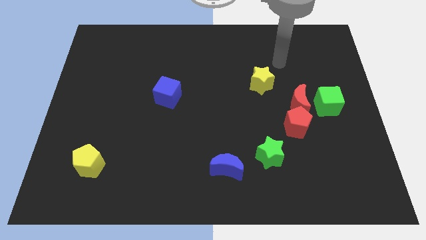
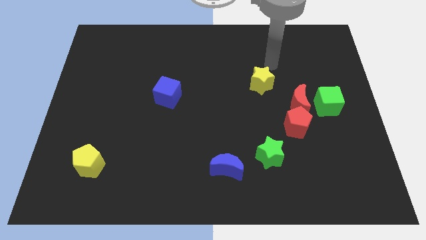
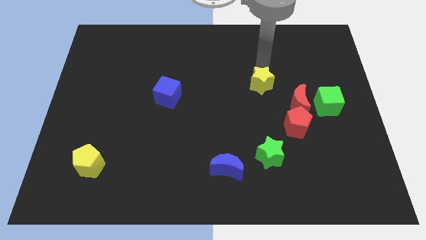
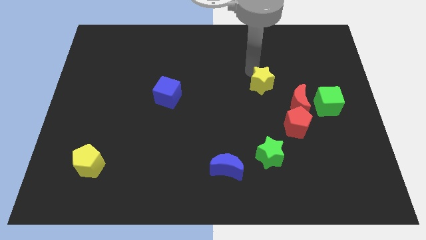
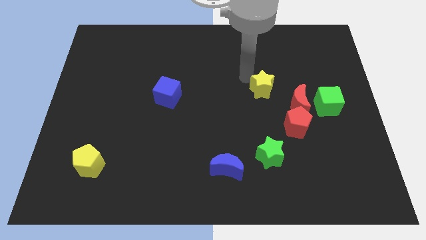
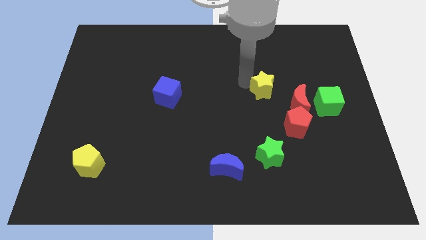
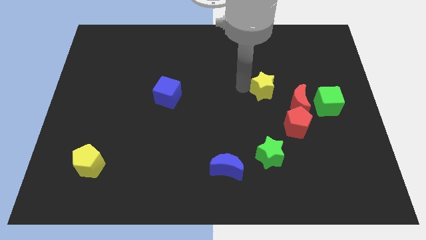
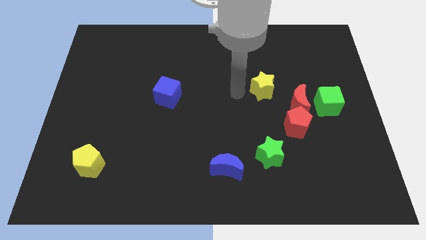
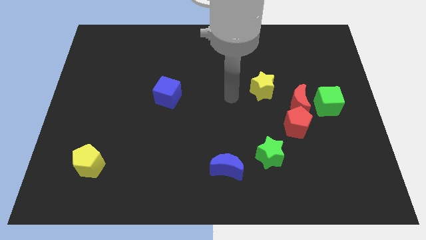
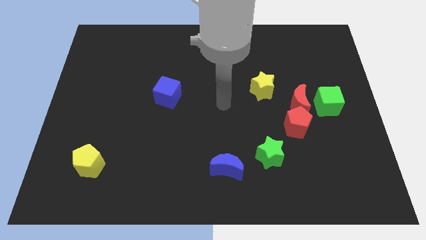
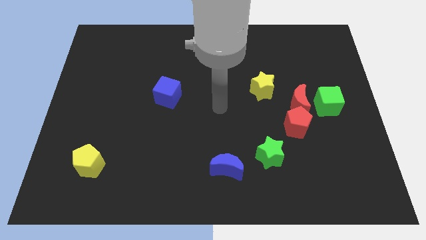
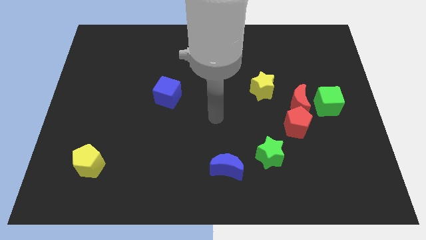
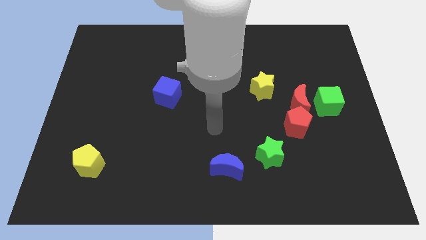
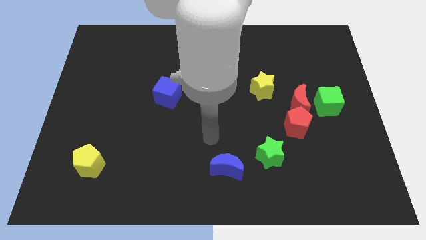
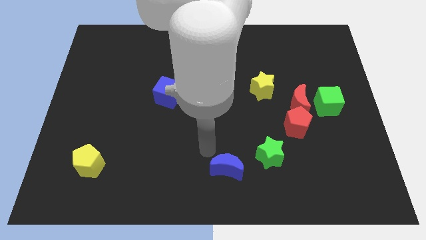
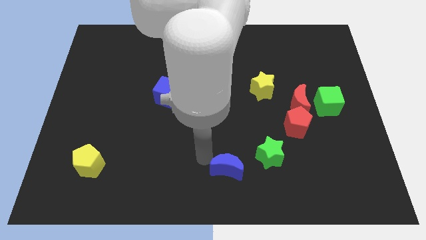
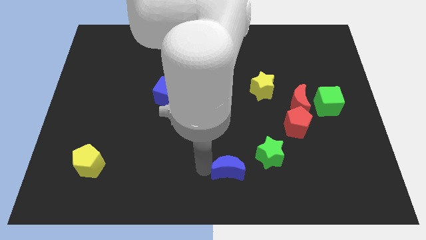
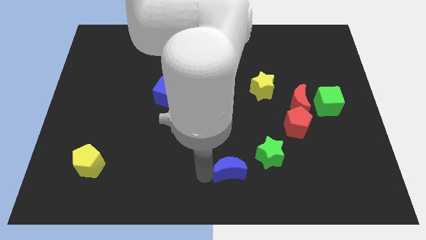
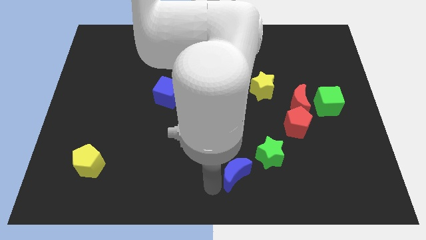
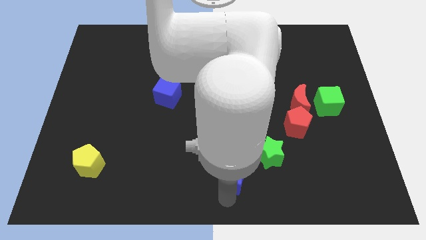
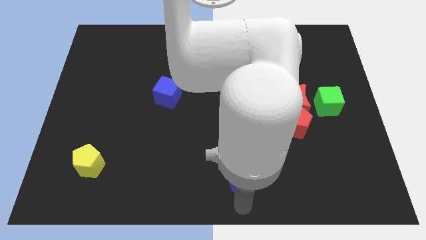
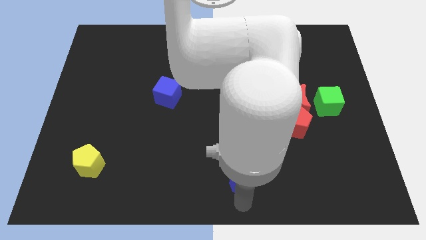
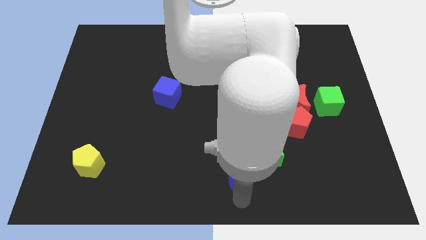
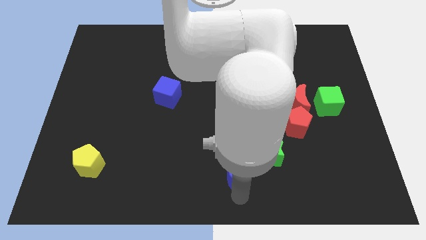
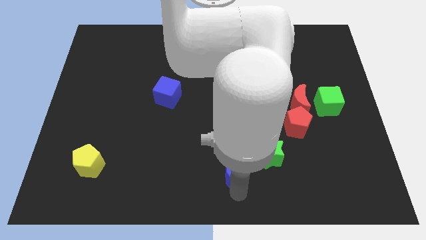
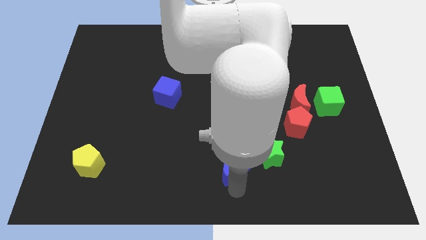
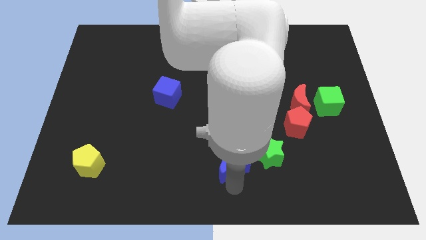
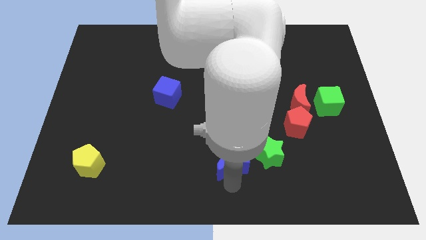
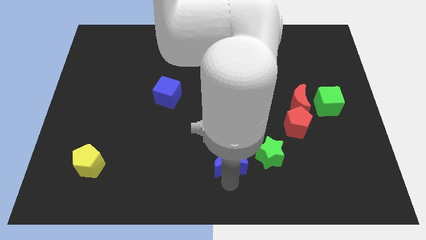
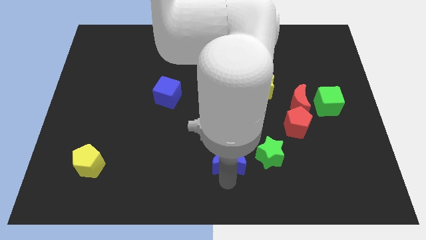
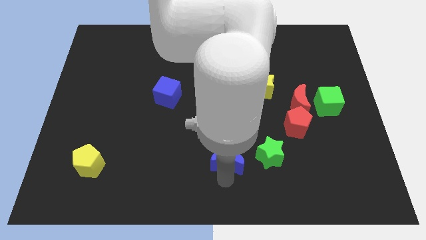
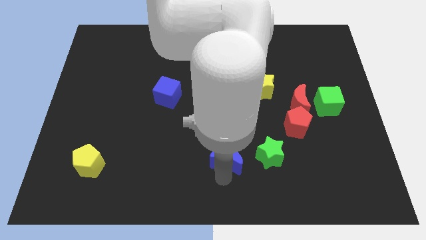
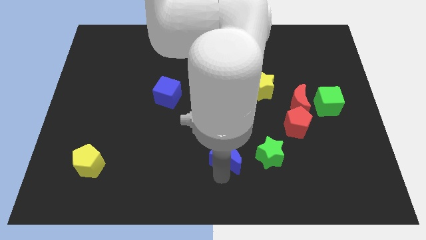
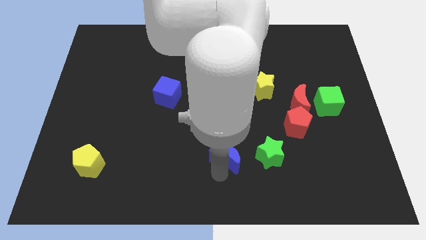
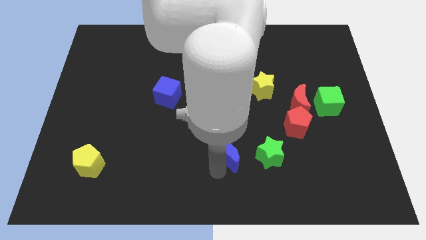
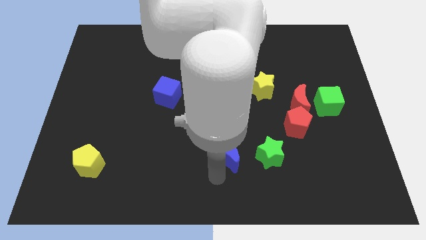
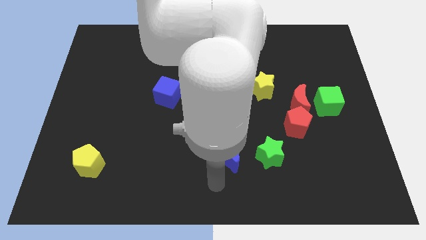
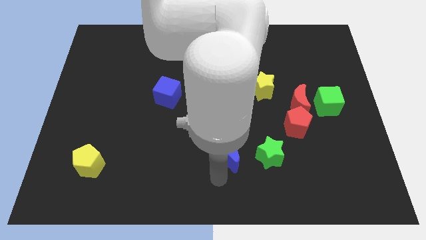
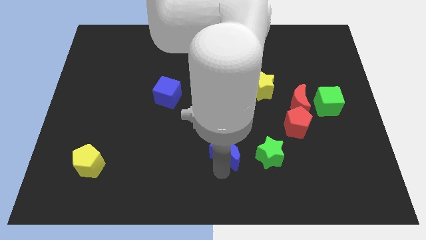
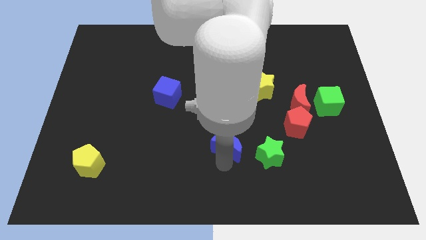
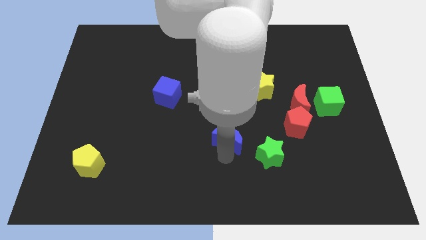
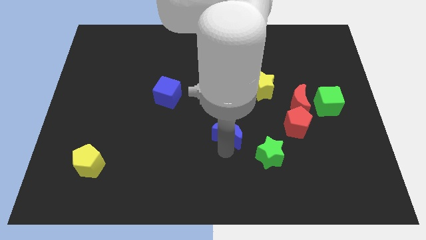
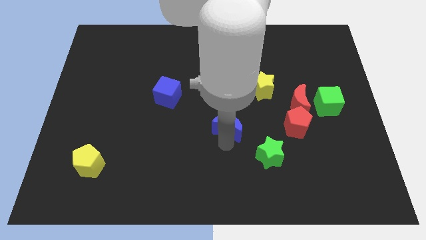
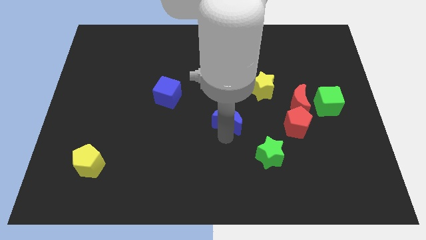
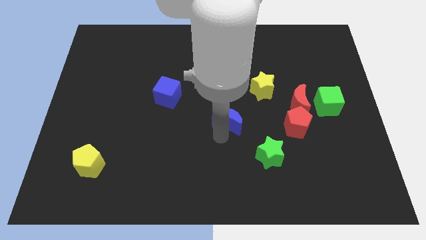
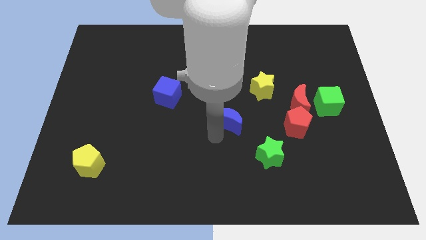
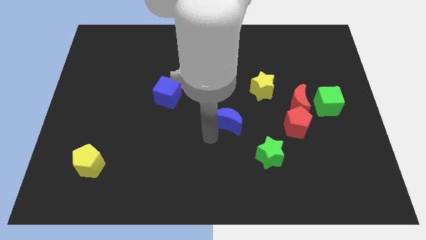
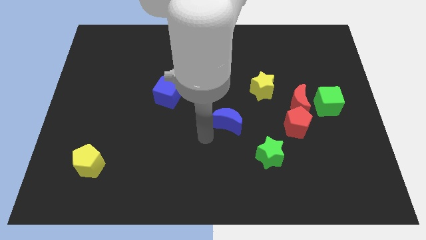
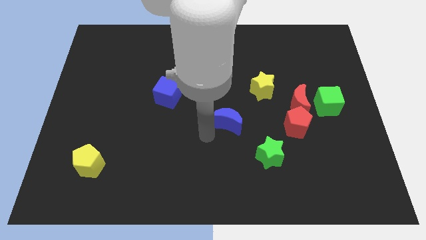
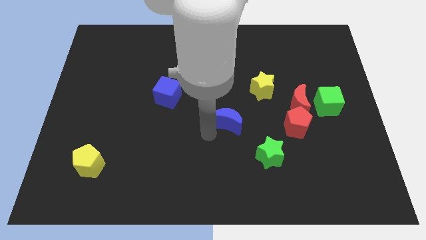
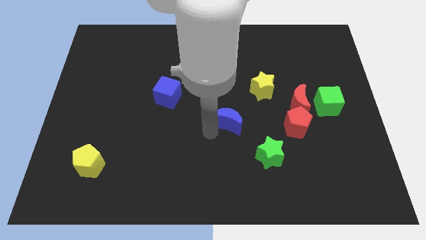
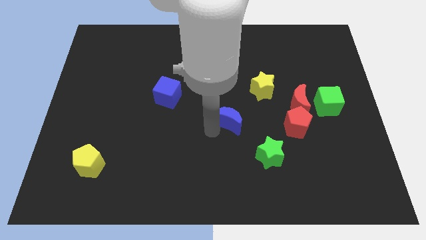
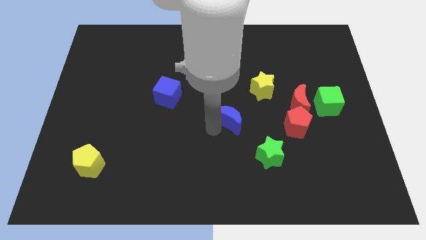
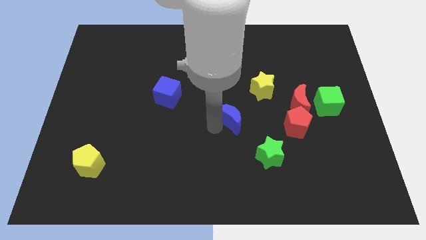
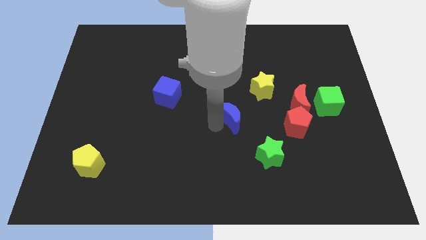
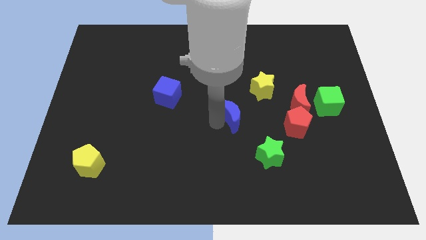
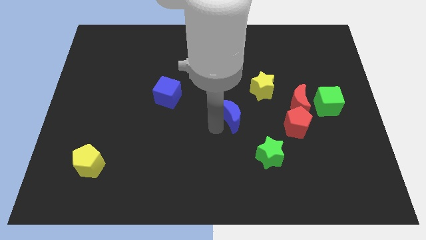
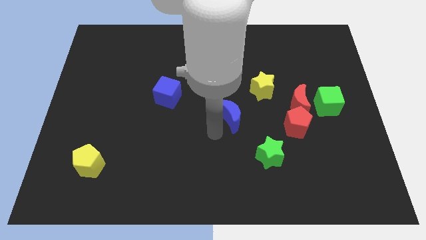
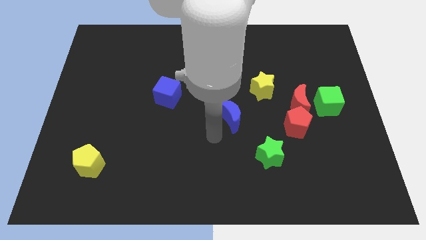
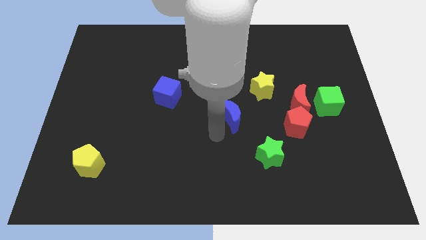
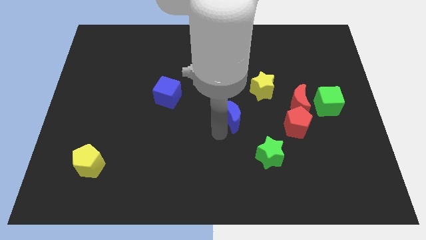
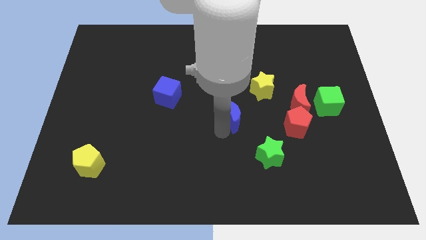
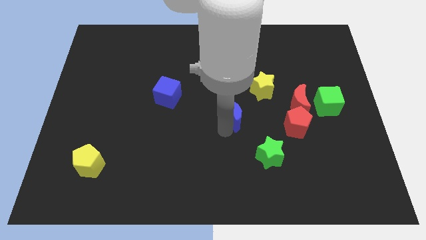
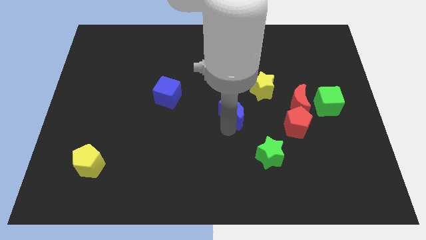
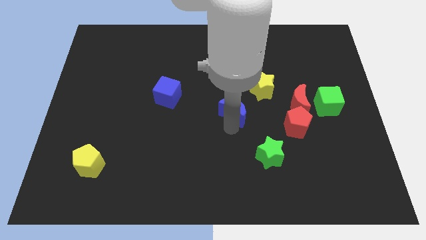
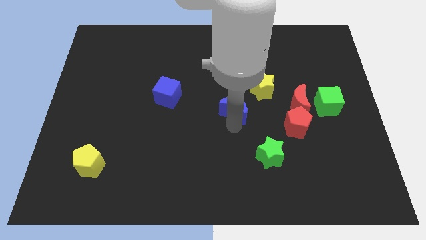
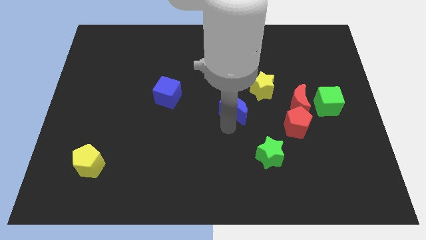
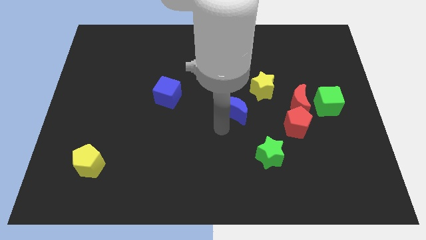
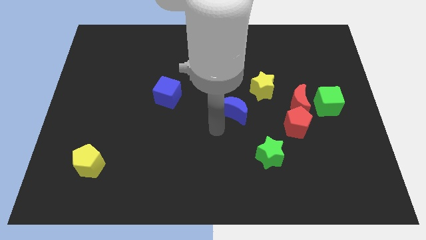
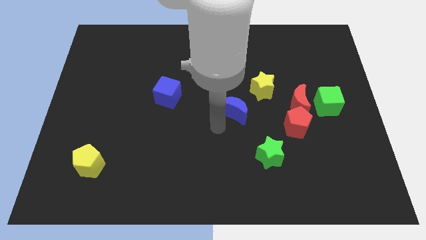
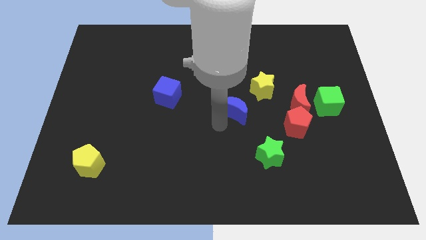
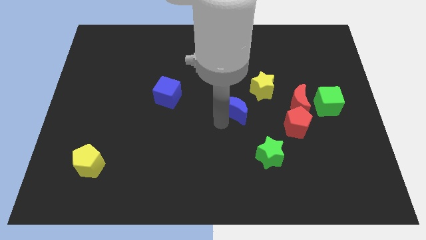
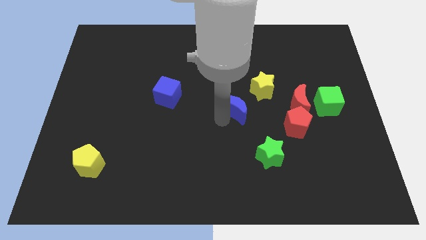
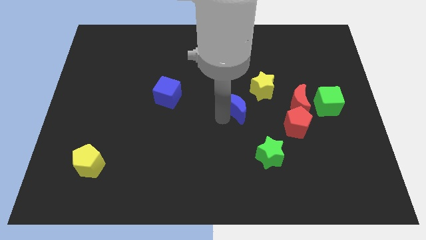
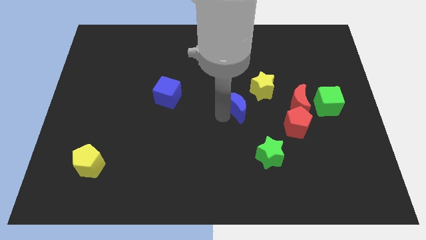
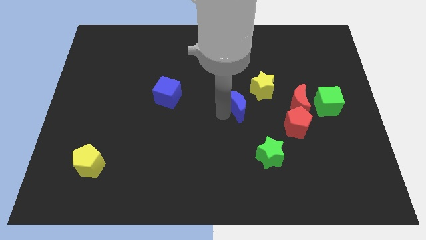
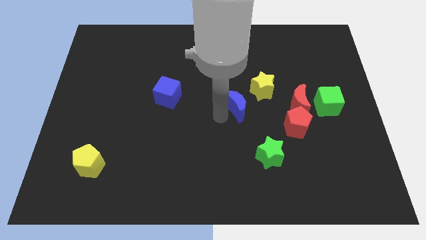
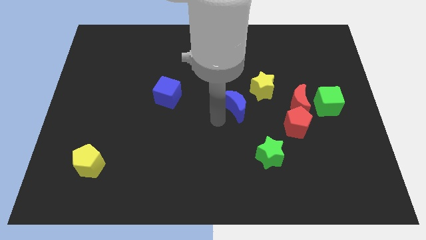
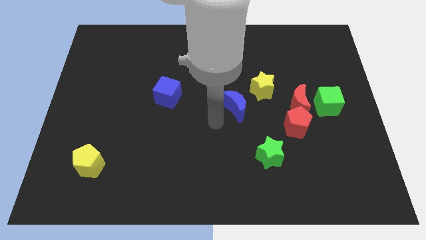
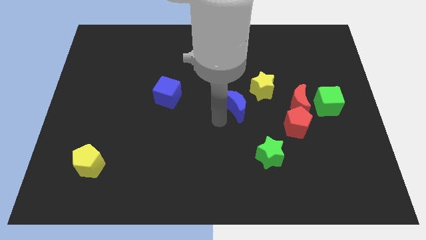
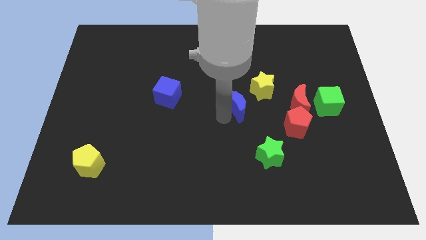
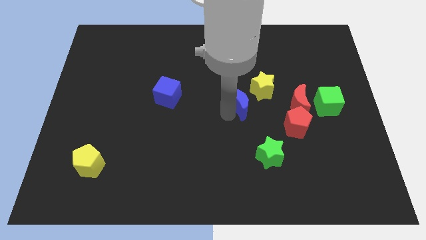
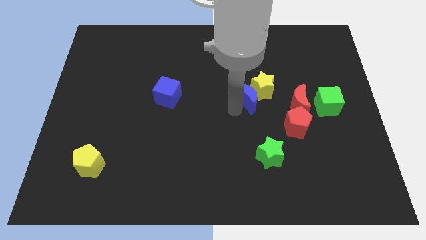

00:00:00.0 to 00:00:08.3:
slide the blue moon to the yellow star
